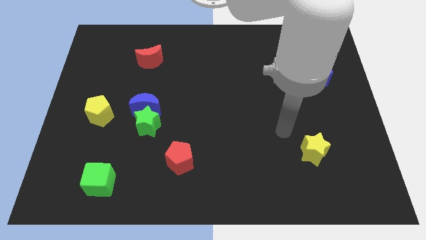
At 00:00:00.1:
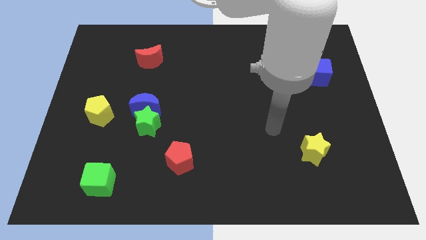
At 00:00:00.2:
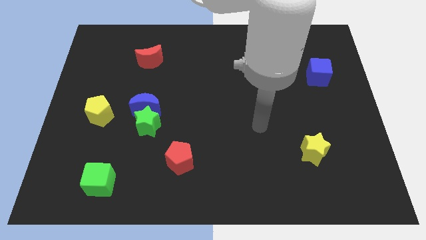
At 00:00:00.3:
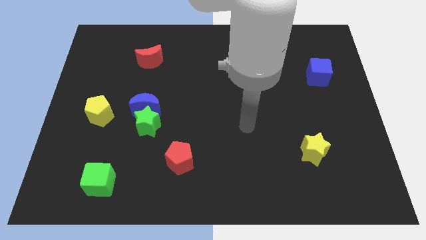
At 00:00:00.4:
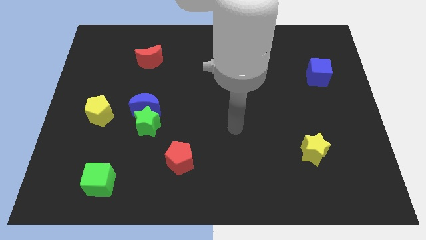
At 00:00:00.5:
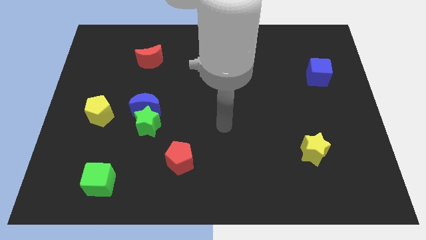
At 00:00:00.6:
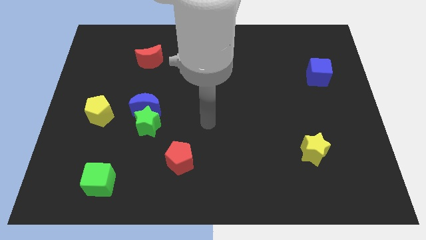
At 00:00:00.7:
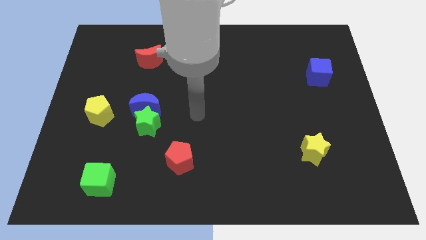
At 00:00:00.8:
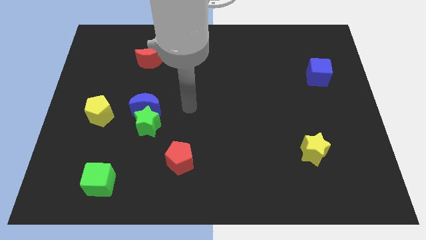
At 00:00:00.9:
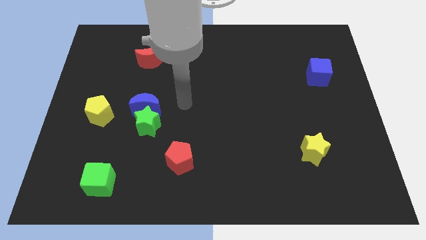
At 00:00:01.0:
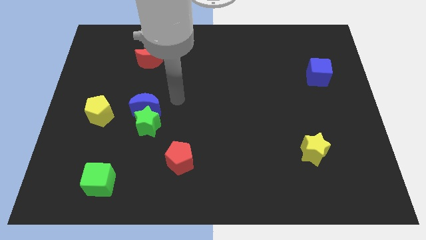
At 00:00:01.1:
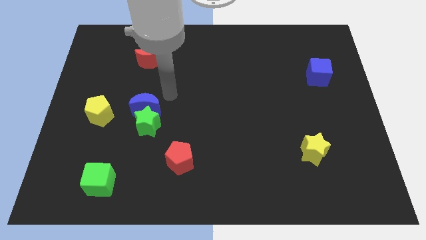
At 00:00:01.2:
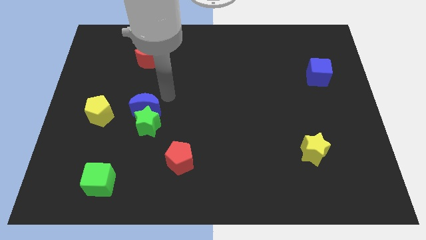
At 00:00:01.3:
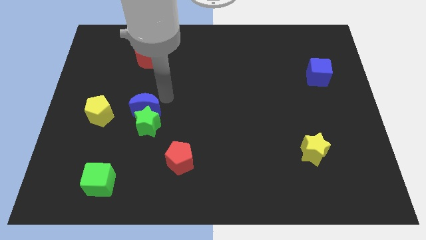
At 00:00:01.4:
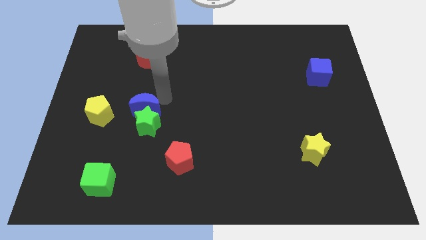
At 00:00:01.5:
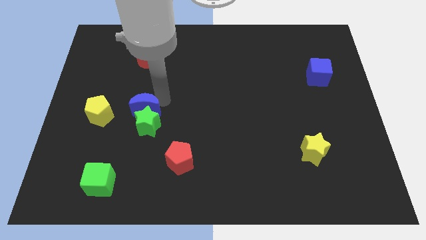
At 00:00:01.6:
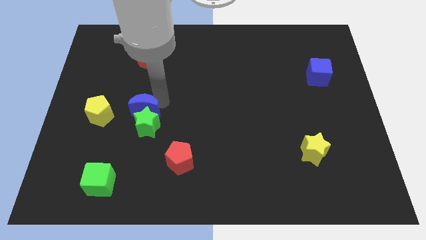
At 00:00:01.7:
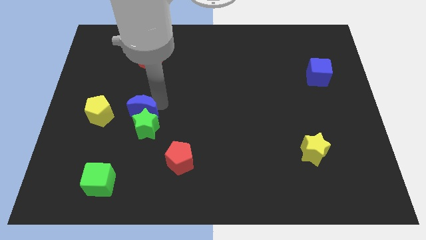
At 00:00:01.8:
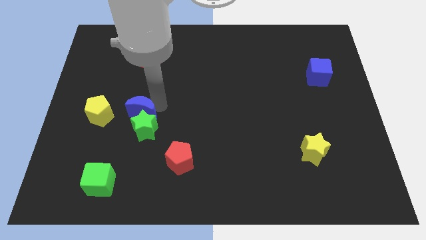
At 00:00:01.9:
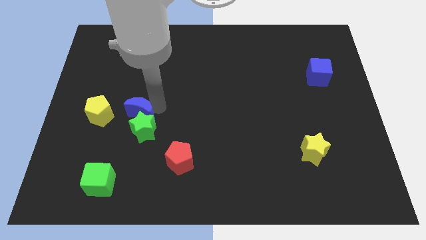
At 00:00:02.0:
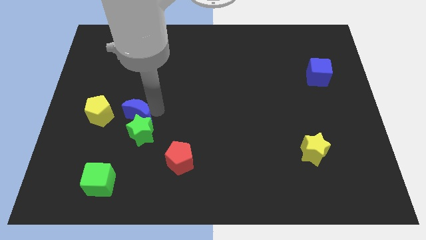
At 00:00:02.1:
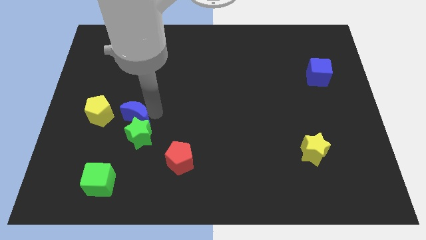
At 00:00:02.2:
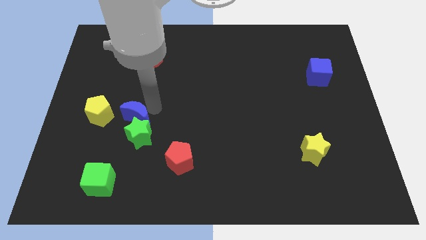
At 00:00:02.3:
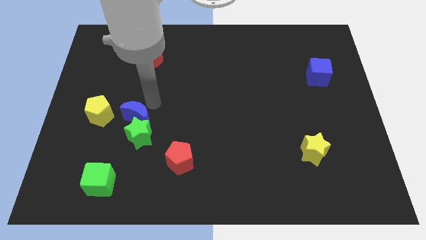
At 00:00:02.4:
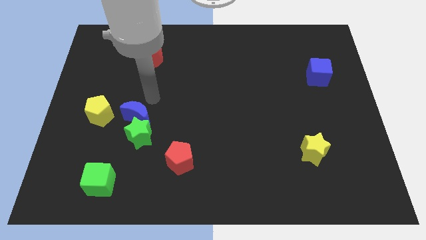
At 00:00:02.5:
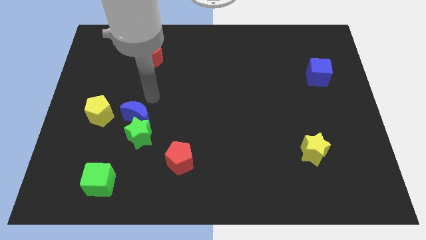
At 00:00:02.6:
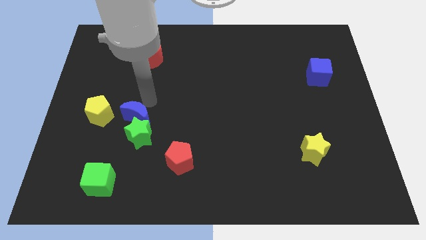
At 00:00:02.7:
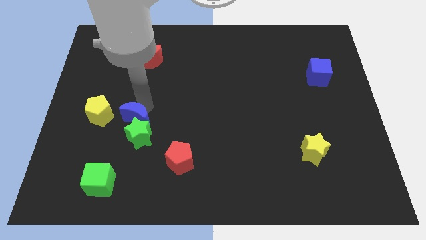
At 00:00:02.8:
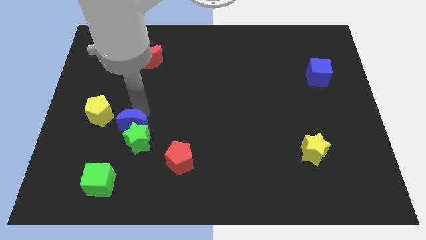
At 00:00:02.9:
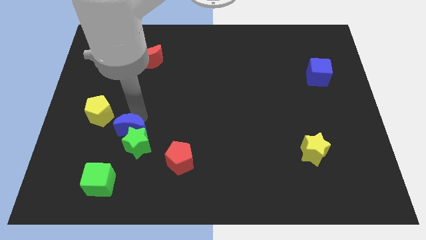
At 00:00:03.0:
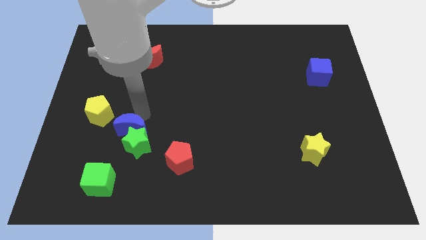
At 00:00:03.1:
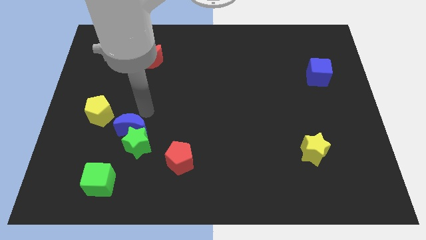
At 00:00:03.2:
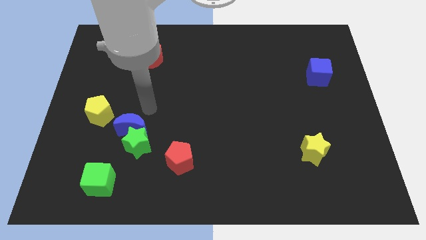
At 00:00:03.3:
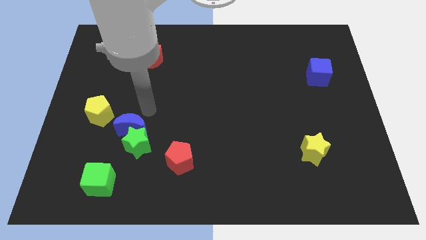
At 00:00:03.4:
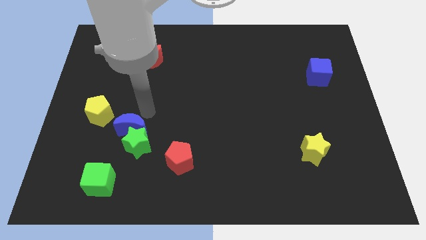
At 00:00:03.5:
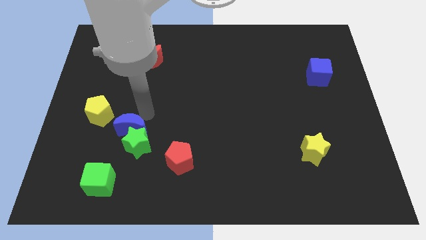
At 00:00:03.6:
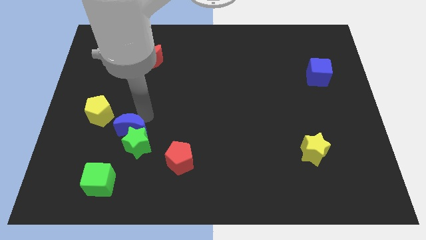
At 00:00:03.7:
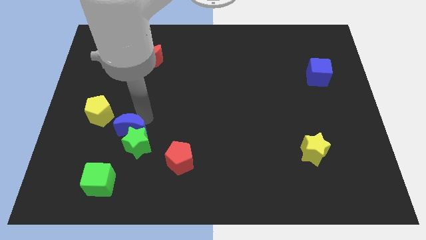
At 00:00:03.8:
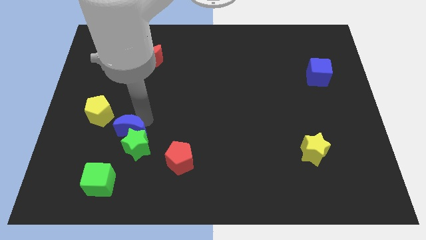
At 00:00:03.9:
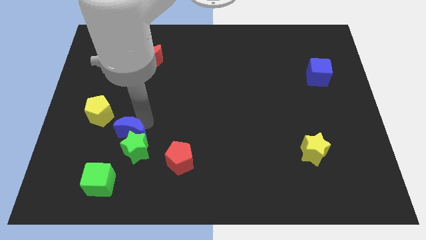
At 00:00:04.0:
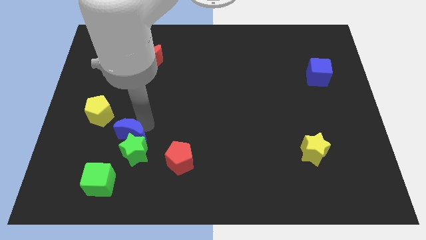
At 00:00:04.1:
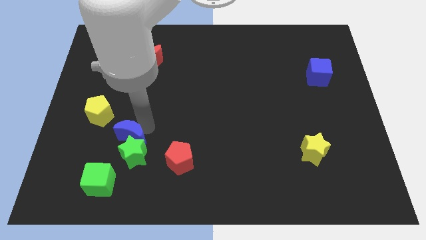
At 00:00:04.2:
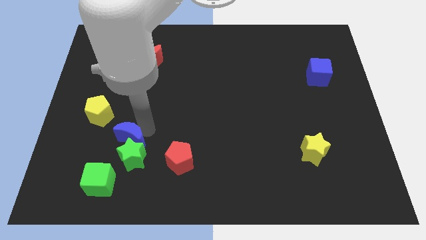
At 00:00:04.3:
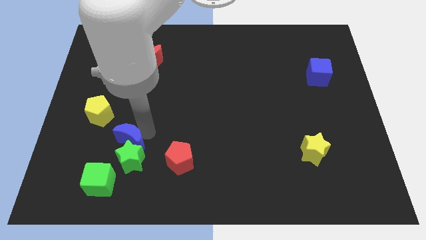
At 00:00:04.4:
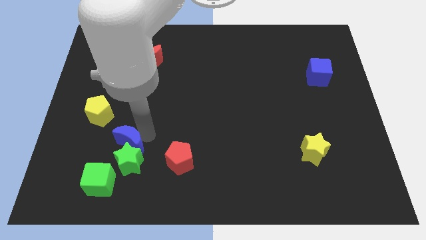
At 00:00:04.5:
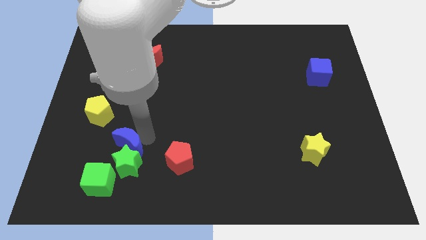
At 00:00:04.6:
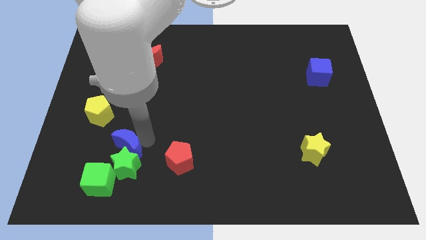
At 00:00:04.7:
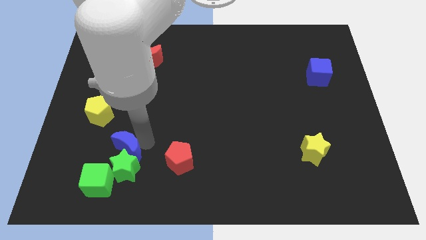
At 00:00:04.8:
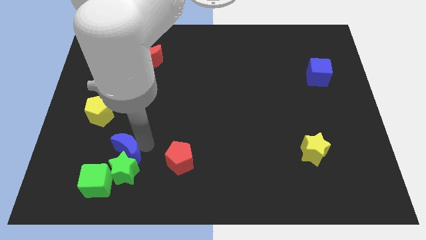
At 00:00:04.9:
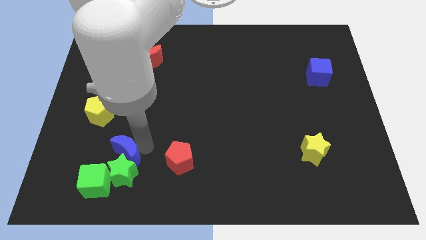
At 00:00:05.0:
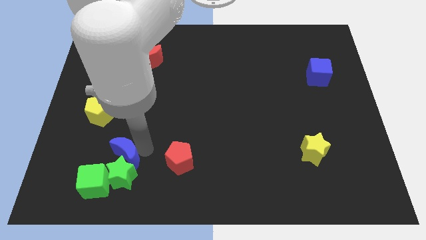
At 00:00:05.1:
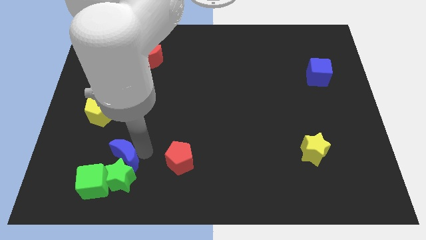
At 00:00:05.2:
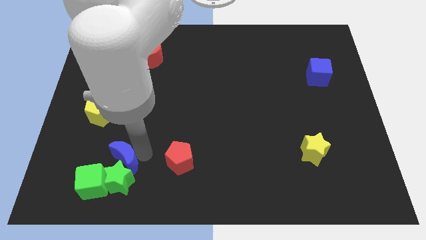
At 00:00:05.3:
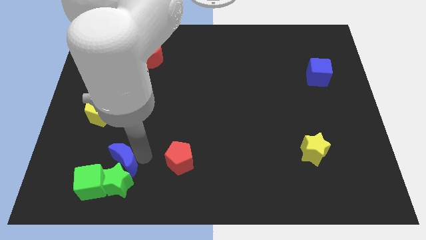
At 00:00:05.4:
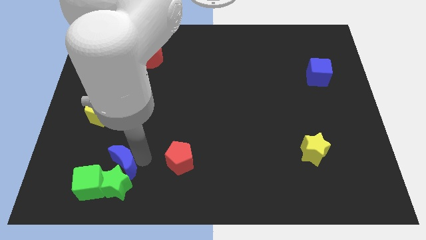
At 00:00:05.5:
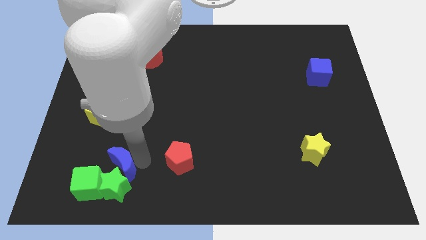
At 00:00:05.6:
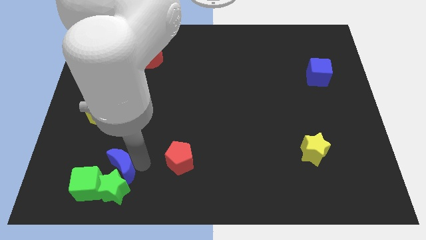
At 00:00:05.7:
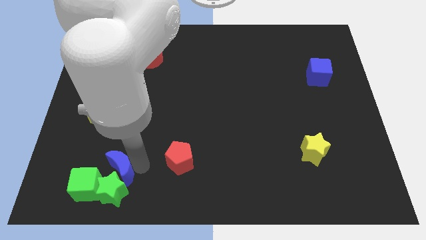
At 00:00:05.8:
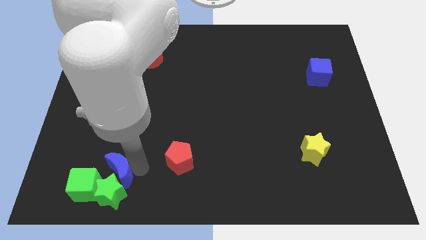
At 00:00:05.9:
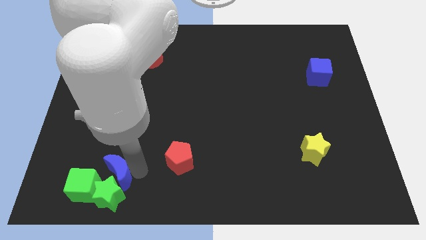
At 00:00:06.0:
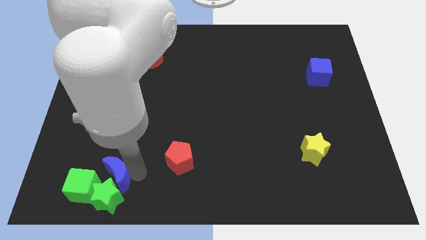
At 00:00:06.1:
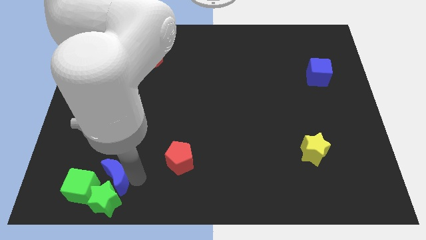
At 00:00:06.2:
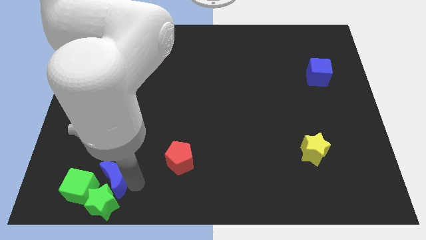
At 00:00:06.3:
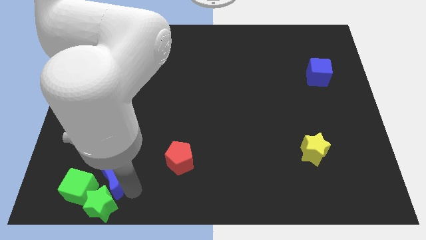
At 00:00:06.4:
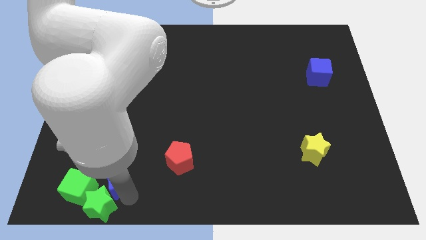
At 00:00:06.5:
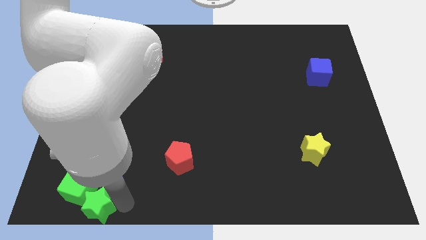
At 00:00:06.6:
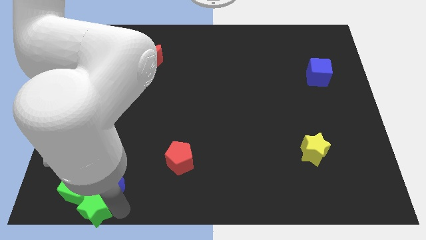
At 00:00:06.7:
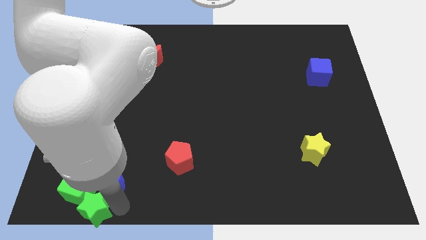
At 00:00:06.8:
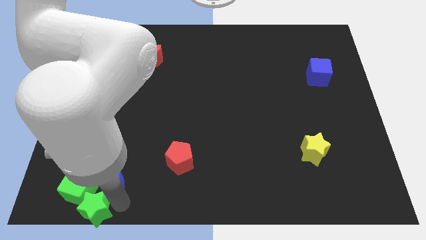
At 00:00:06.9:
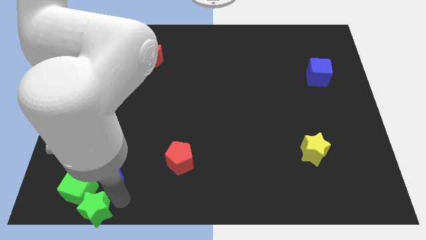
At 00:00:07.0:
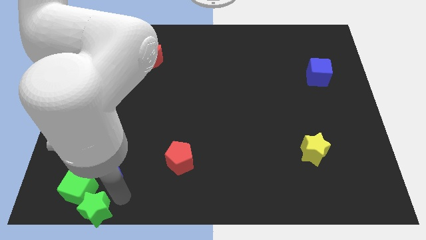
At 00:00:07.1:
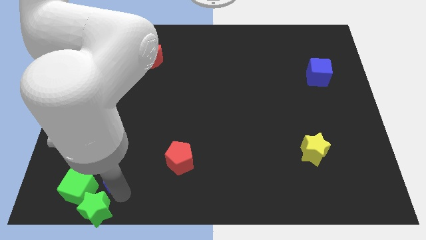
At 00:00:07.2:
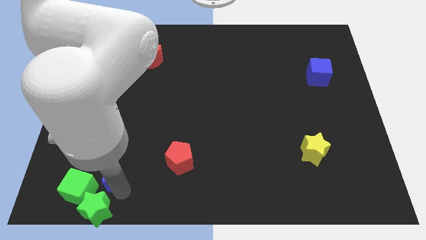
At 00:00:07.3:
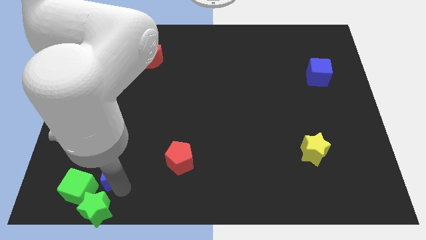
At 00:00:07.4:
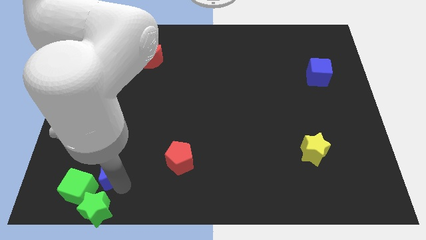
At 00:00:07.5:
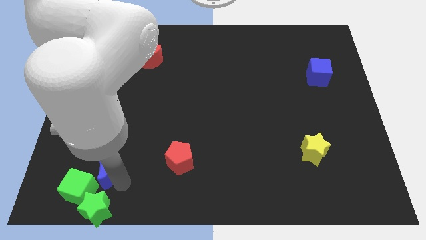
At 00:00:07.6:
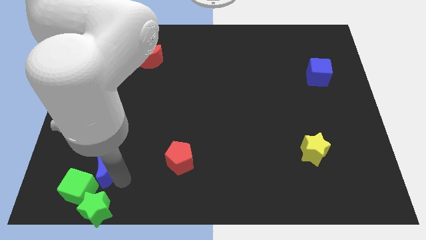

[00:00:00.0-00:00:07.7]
put the blue moon next to the green cube
